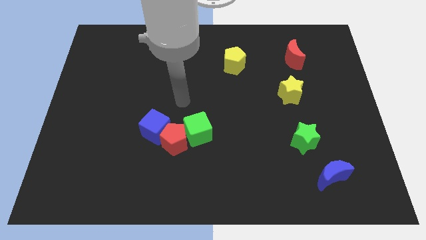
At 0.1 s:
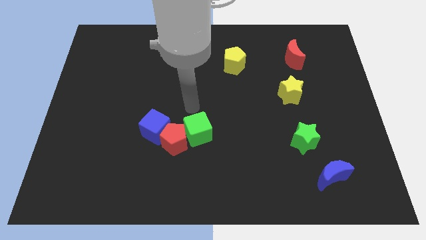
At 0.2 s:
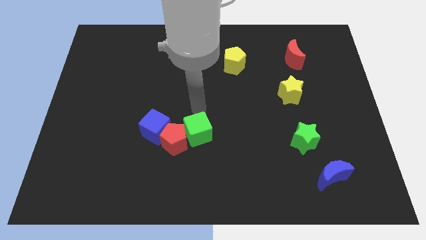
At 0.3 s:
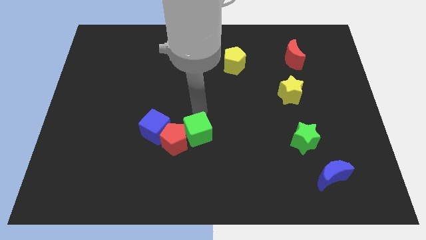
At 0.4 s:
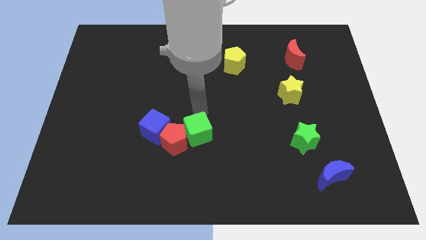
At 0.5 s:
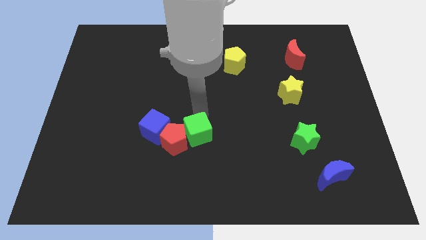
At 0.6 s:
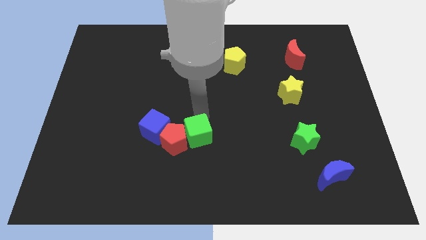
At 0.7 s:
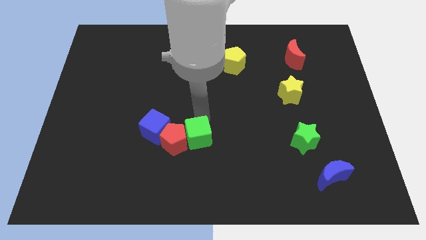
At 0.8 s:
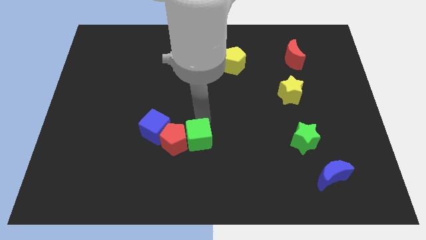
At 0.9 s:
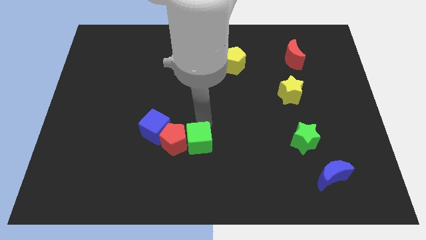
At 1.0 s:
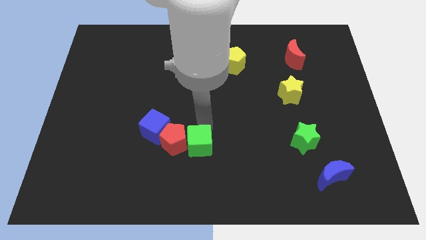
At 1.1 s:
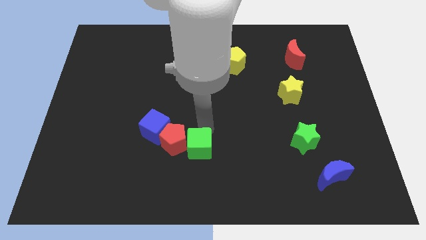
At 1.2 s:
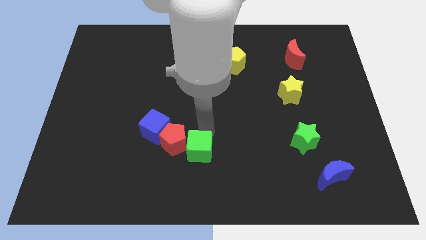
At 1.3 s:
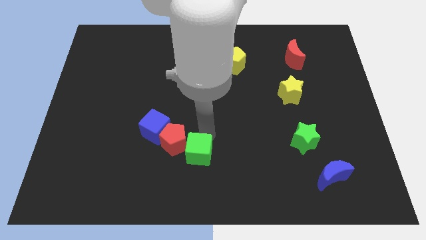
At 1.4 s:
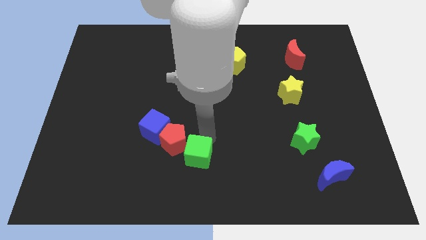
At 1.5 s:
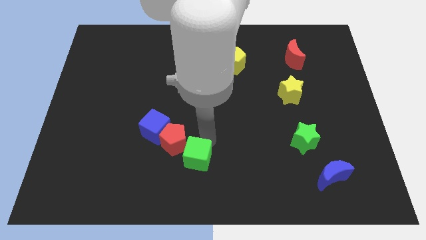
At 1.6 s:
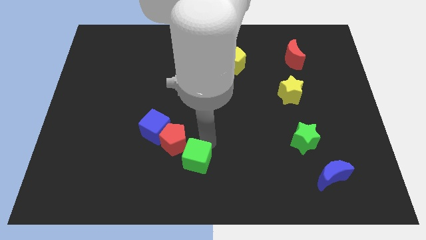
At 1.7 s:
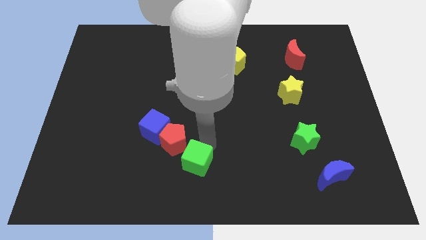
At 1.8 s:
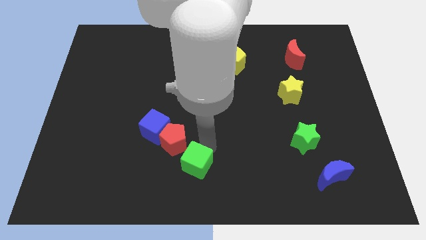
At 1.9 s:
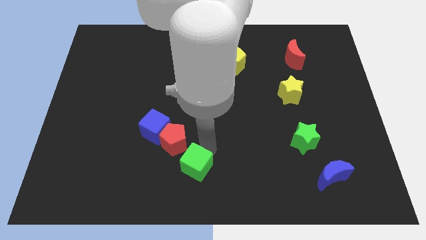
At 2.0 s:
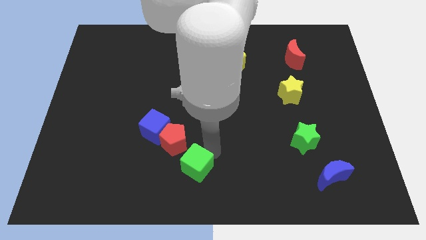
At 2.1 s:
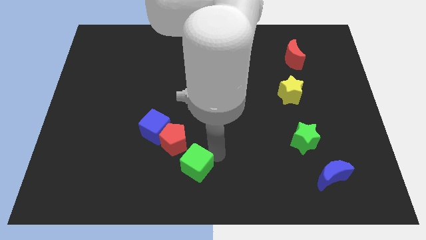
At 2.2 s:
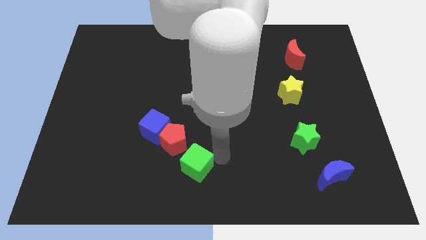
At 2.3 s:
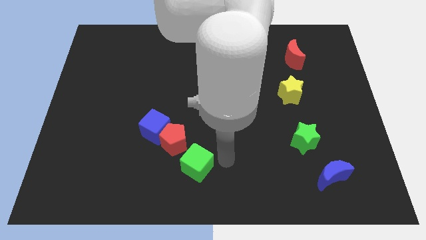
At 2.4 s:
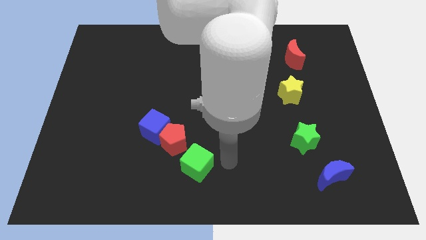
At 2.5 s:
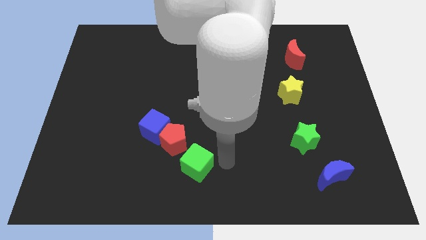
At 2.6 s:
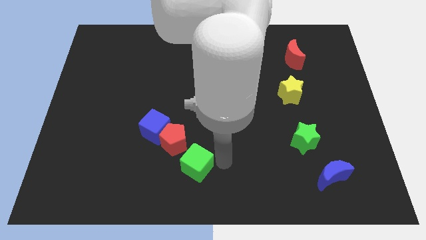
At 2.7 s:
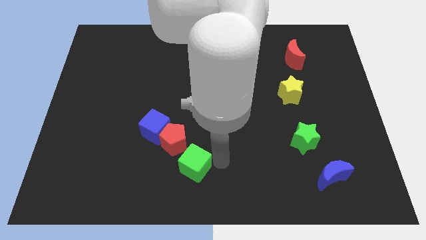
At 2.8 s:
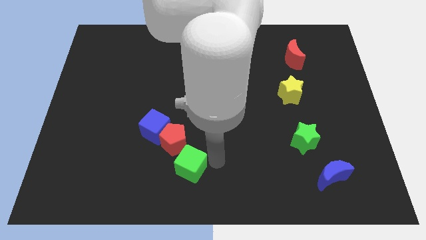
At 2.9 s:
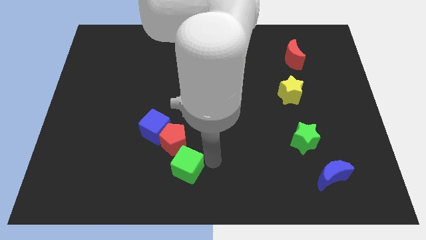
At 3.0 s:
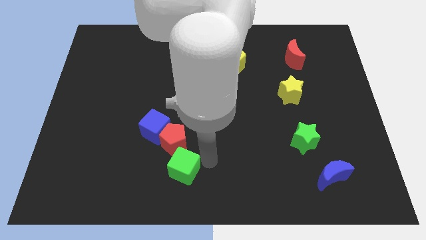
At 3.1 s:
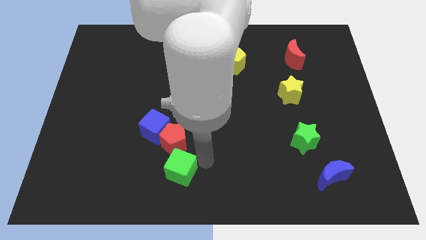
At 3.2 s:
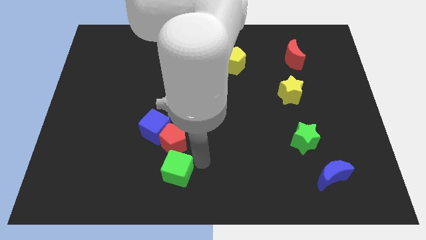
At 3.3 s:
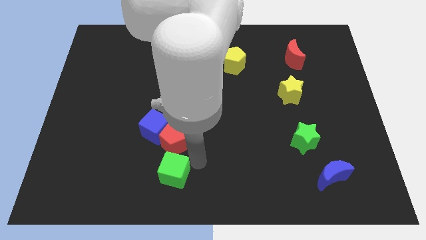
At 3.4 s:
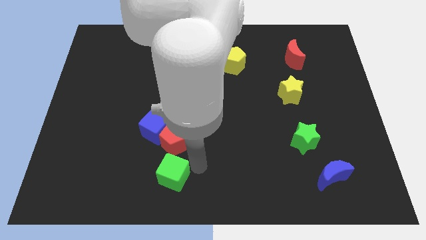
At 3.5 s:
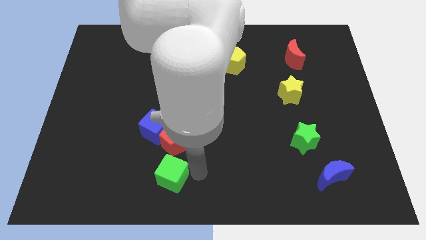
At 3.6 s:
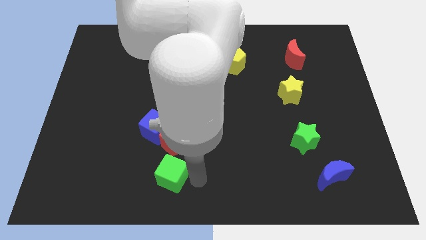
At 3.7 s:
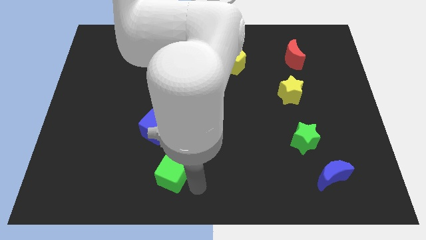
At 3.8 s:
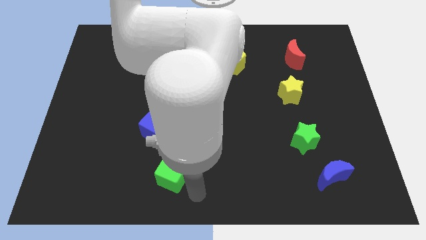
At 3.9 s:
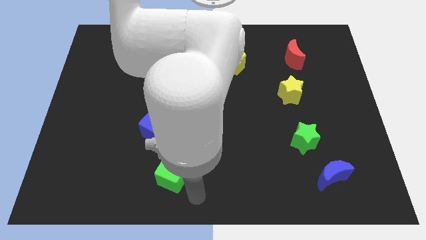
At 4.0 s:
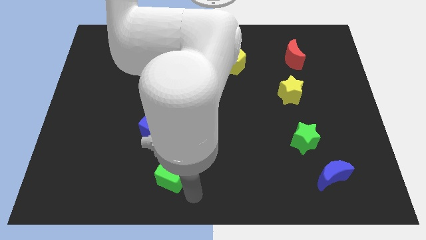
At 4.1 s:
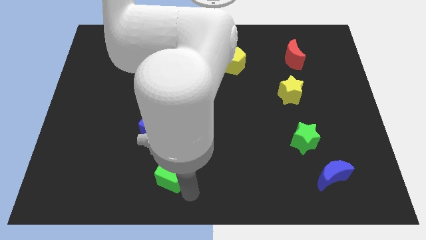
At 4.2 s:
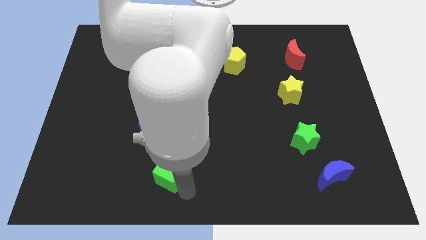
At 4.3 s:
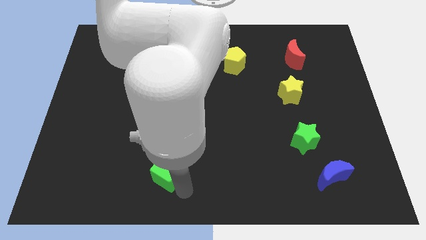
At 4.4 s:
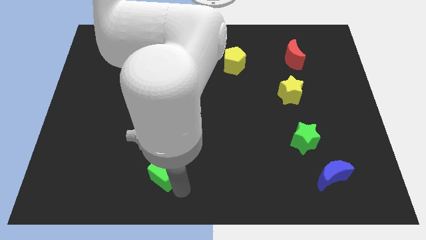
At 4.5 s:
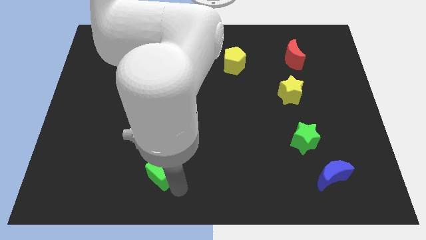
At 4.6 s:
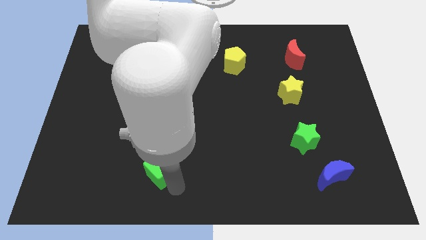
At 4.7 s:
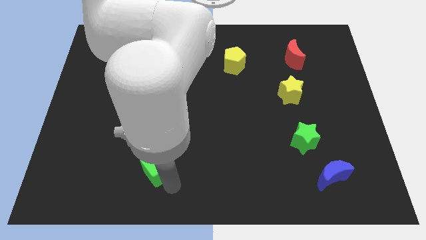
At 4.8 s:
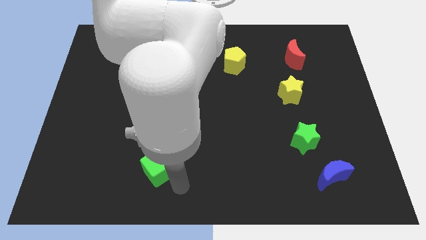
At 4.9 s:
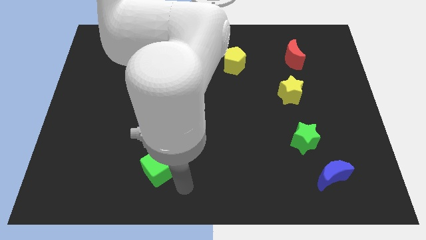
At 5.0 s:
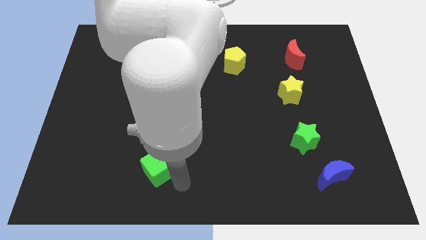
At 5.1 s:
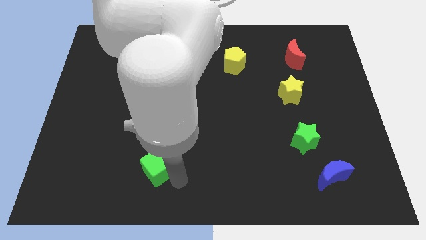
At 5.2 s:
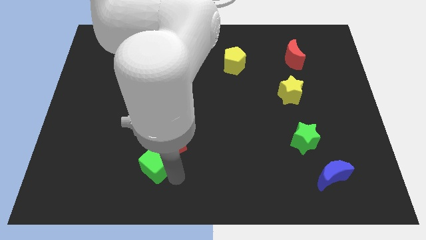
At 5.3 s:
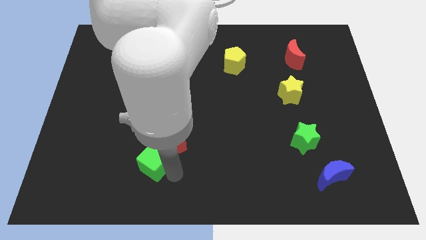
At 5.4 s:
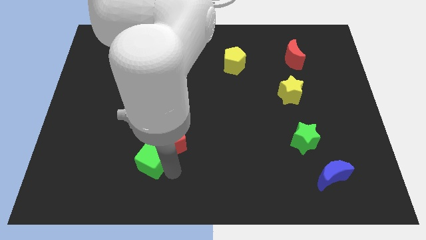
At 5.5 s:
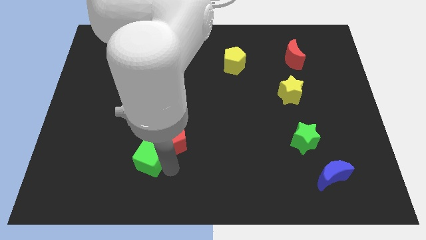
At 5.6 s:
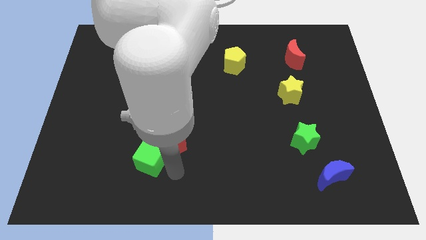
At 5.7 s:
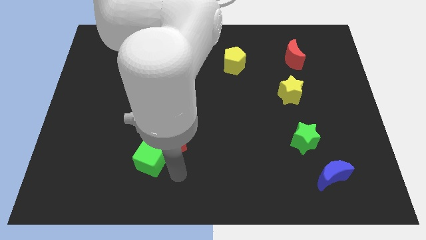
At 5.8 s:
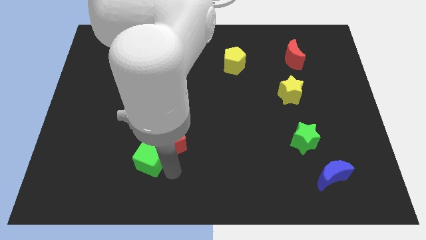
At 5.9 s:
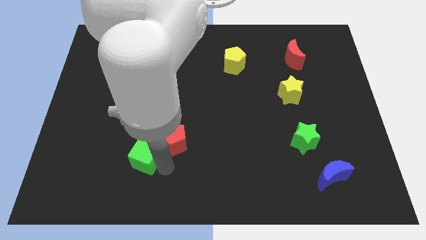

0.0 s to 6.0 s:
slide the green cube to the bottom left of the blue cube

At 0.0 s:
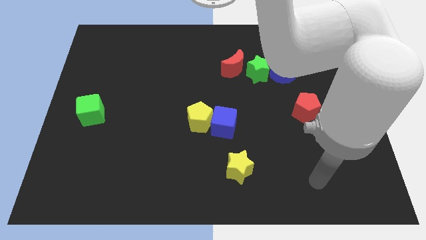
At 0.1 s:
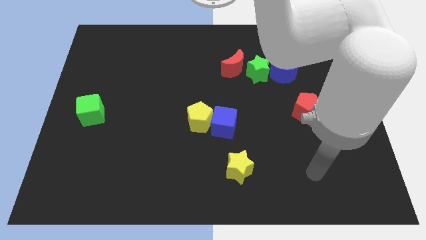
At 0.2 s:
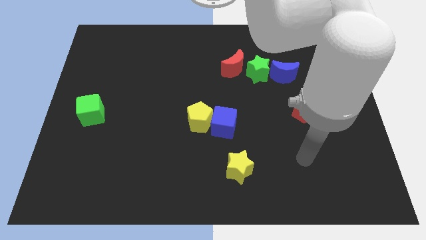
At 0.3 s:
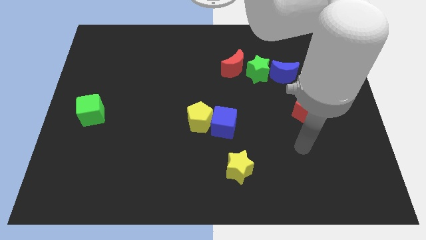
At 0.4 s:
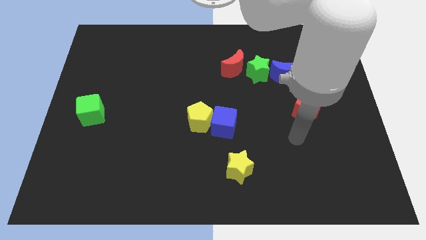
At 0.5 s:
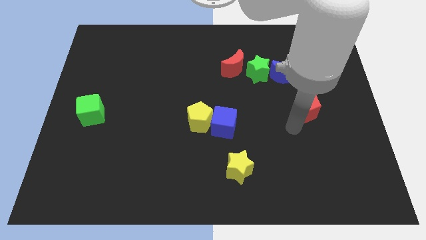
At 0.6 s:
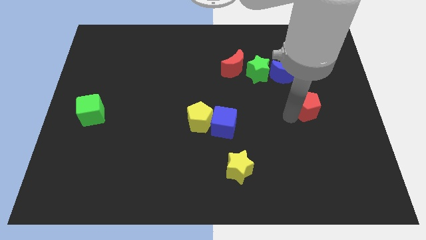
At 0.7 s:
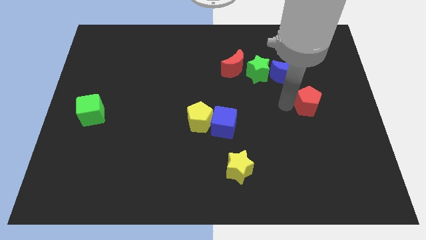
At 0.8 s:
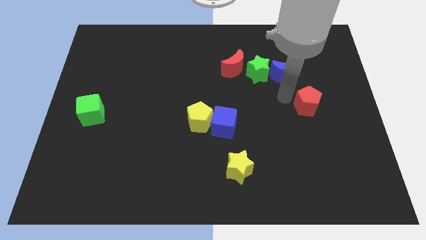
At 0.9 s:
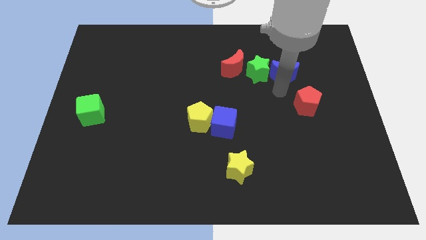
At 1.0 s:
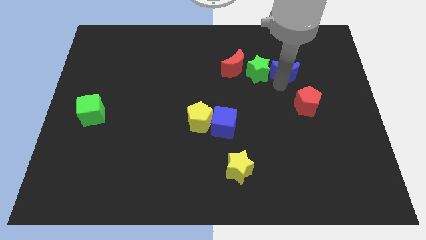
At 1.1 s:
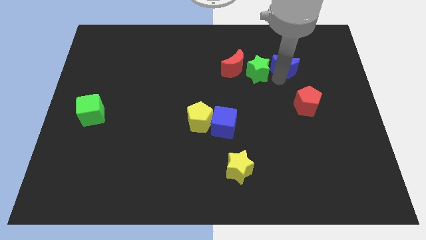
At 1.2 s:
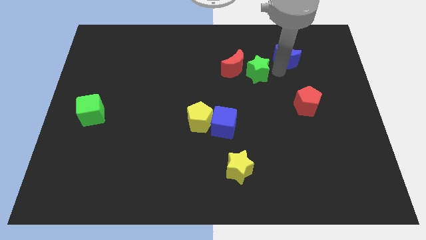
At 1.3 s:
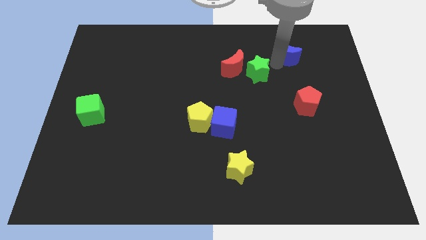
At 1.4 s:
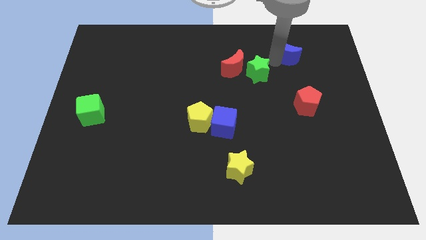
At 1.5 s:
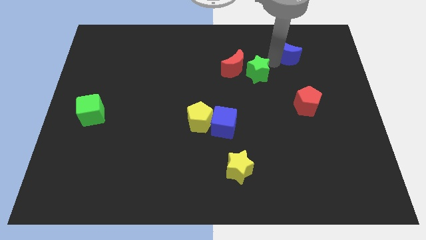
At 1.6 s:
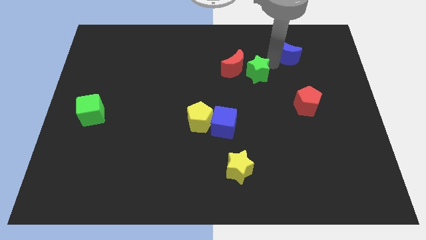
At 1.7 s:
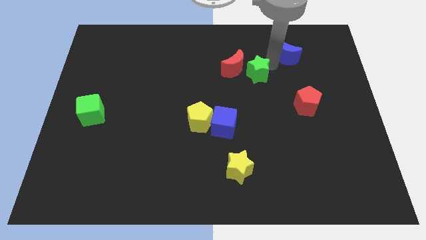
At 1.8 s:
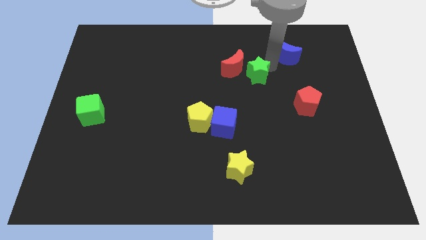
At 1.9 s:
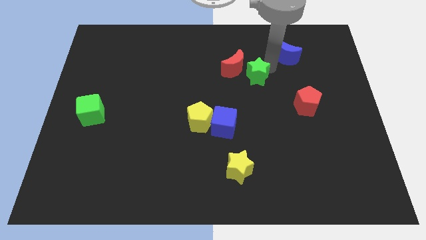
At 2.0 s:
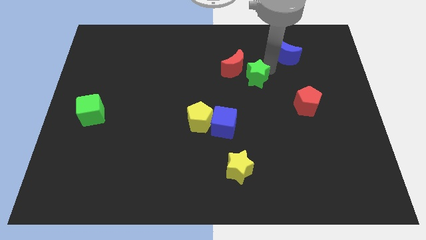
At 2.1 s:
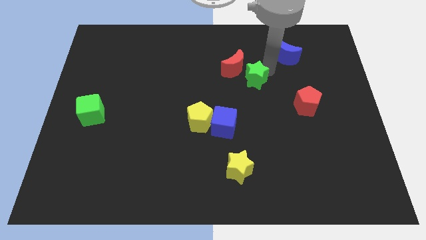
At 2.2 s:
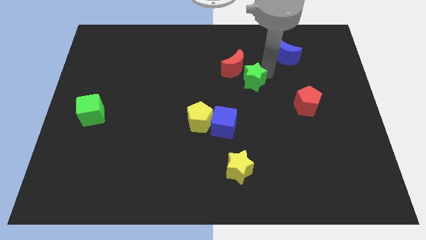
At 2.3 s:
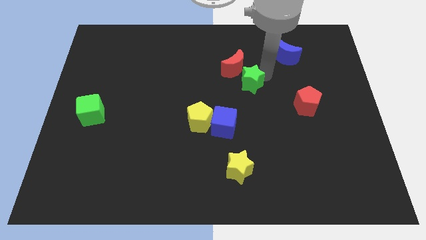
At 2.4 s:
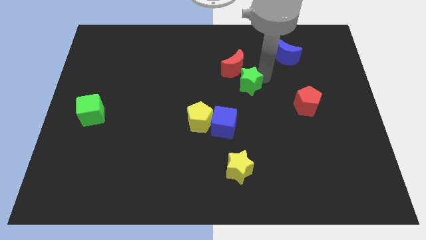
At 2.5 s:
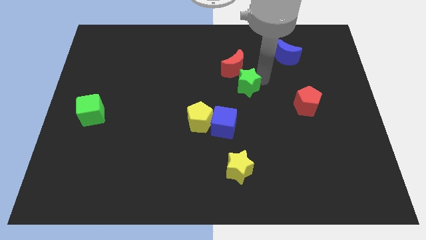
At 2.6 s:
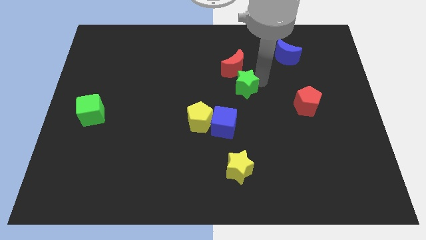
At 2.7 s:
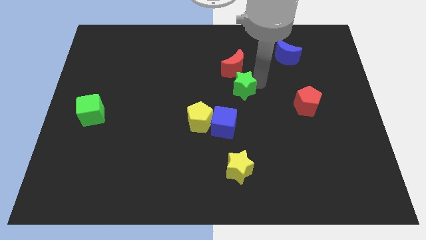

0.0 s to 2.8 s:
slide the green star to the top of the blue cube
